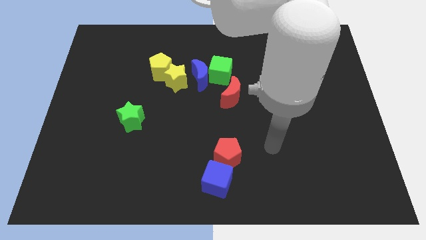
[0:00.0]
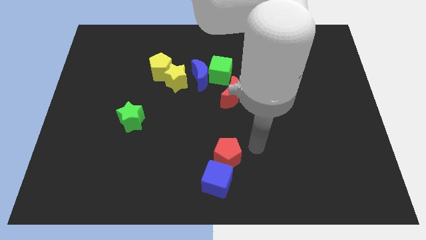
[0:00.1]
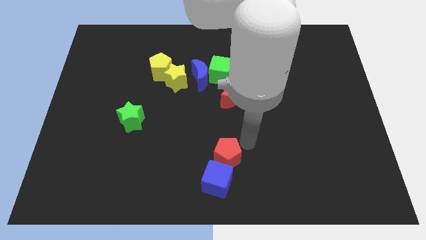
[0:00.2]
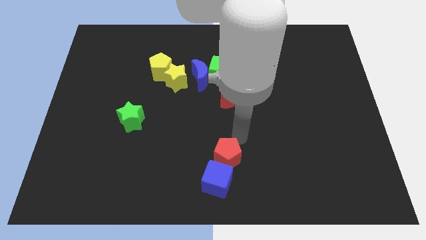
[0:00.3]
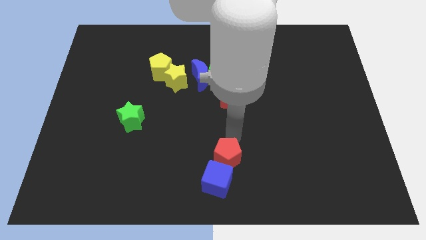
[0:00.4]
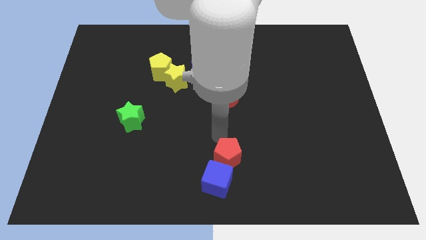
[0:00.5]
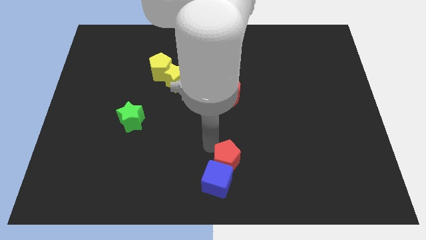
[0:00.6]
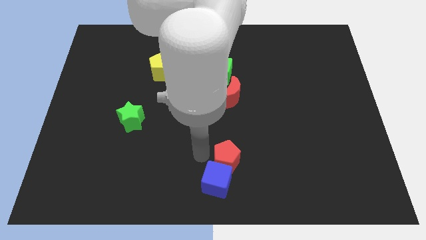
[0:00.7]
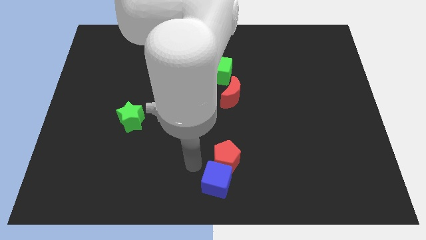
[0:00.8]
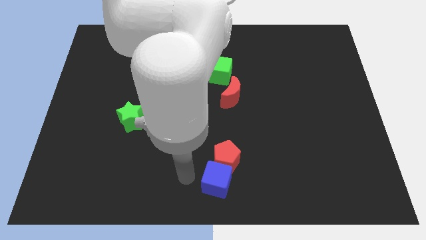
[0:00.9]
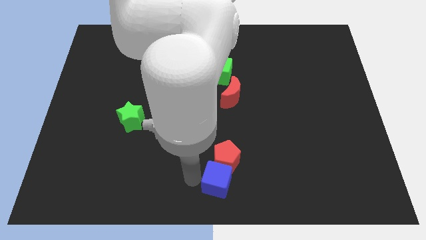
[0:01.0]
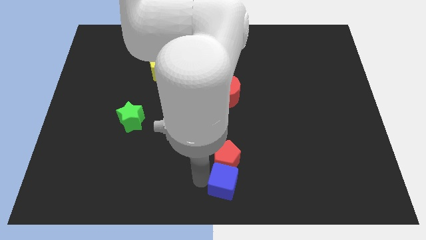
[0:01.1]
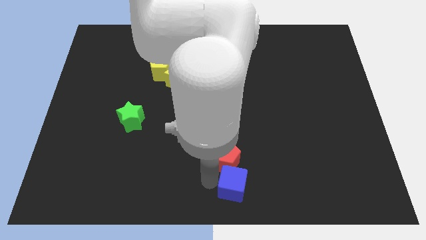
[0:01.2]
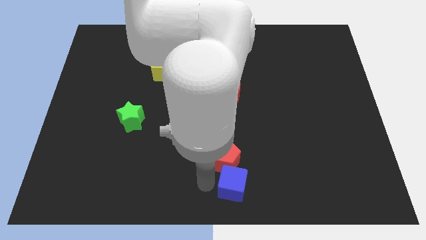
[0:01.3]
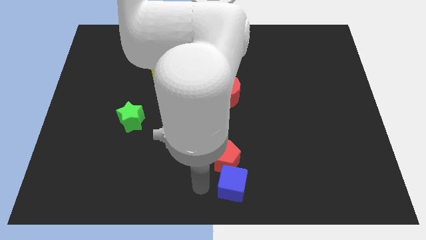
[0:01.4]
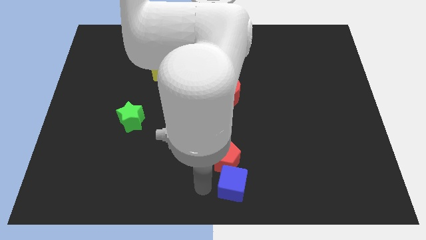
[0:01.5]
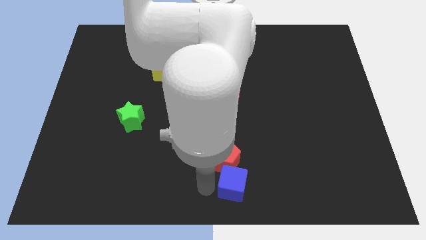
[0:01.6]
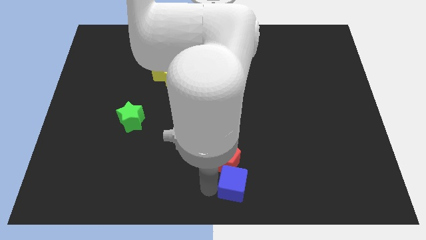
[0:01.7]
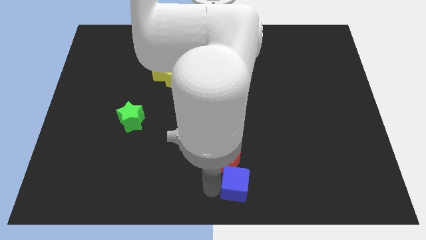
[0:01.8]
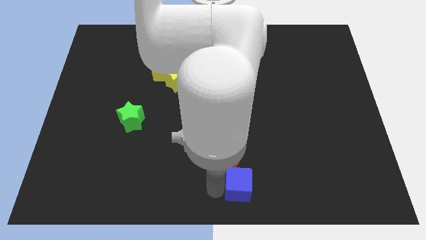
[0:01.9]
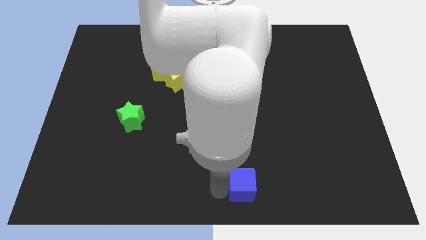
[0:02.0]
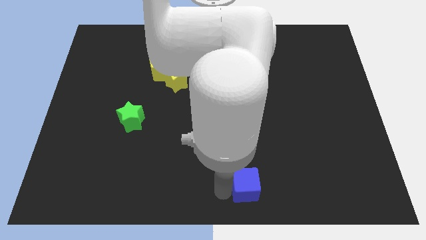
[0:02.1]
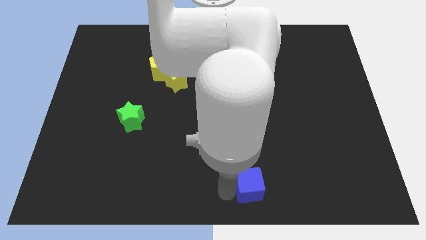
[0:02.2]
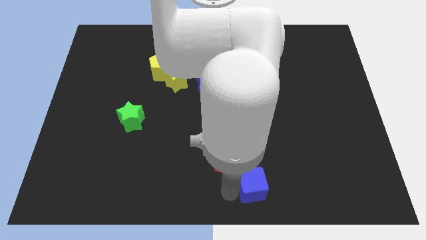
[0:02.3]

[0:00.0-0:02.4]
slightly slide the blue cube to the right

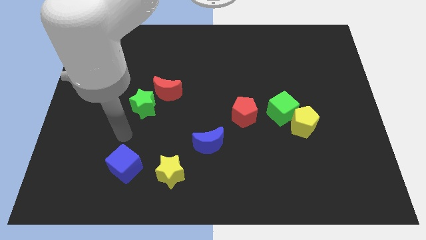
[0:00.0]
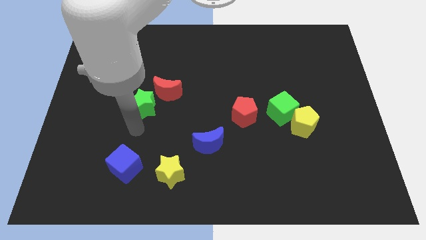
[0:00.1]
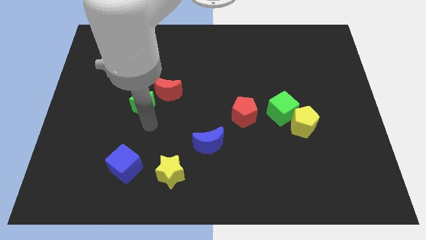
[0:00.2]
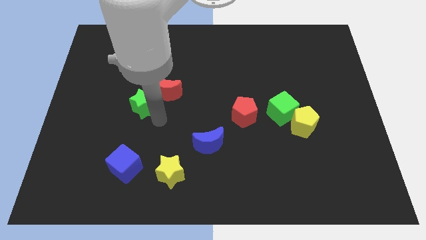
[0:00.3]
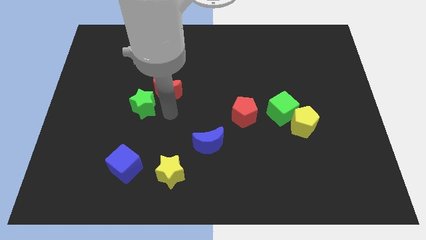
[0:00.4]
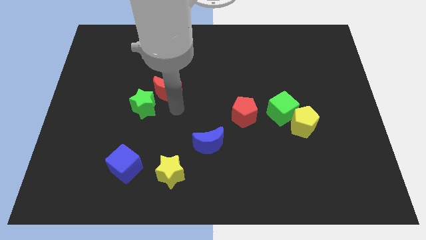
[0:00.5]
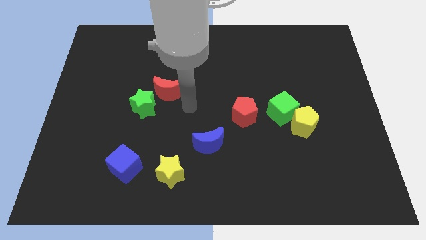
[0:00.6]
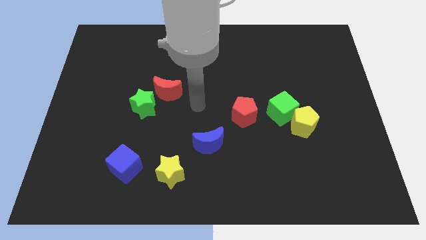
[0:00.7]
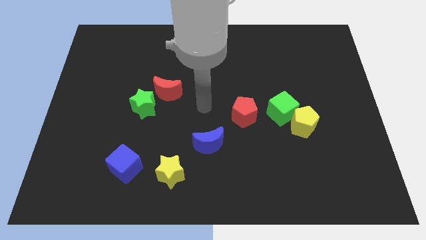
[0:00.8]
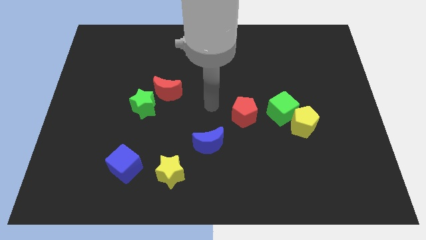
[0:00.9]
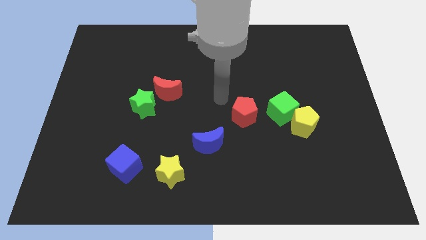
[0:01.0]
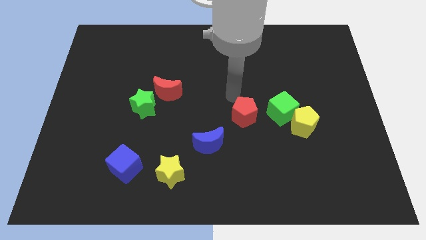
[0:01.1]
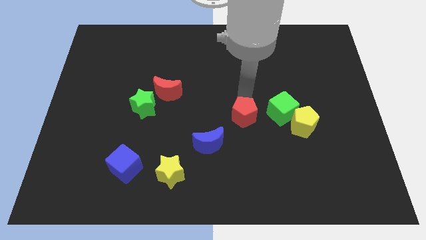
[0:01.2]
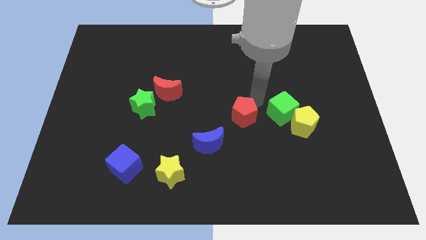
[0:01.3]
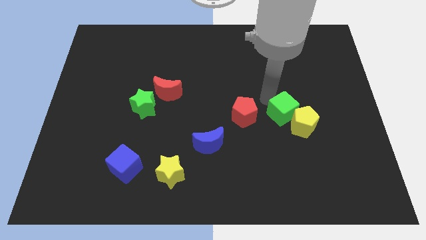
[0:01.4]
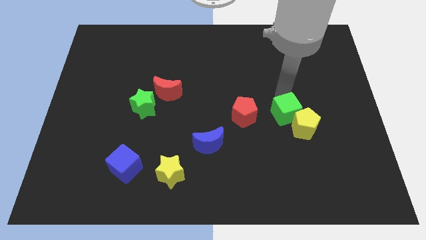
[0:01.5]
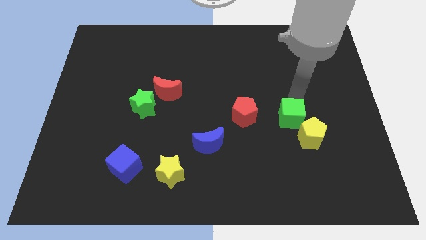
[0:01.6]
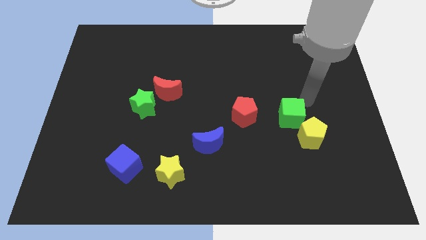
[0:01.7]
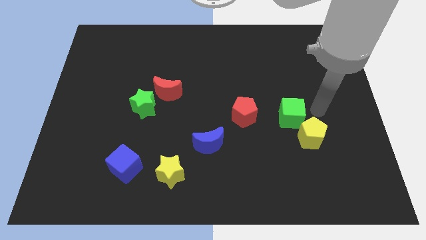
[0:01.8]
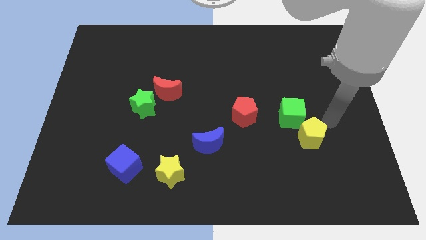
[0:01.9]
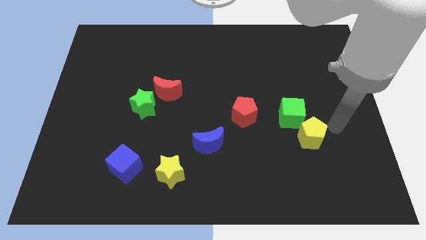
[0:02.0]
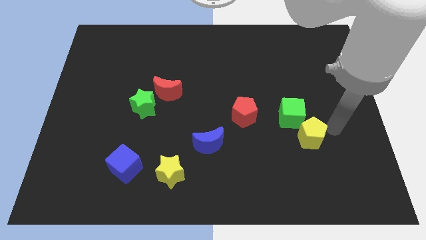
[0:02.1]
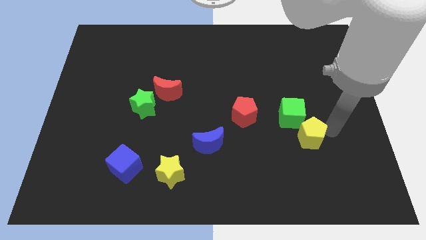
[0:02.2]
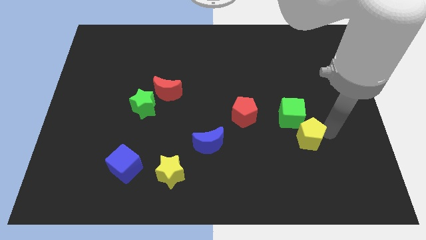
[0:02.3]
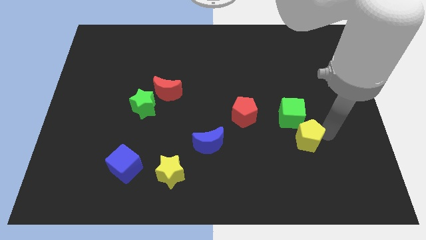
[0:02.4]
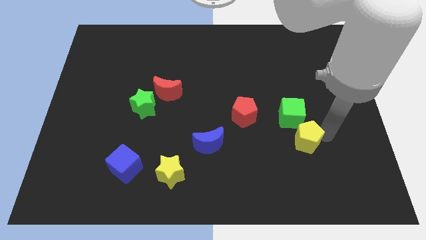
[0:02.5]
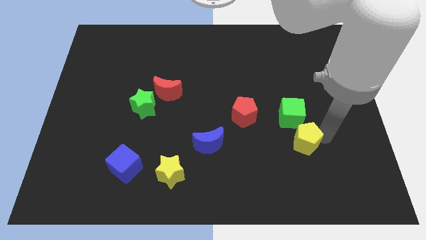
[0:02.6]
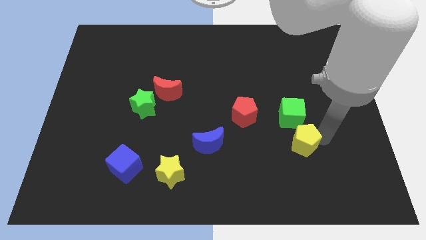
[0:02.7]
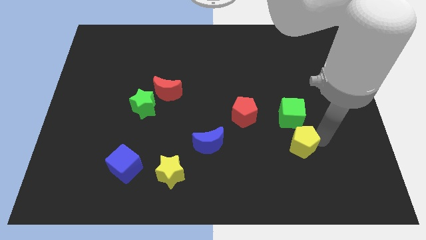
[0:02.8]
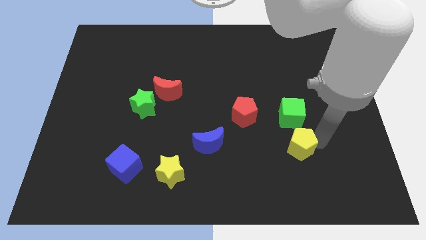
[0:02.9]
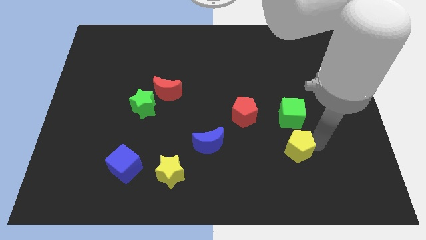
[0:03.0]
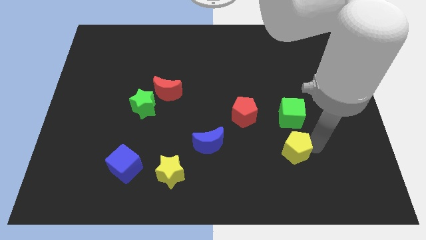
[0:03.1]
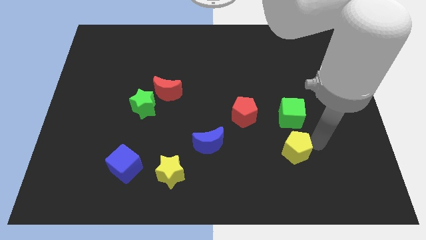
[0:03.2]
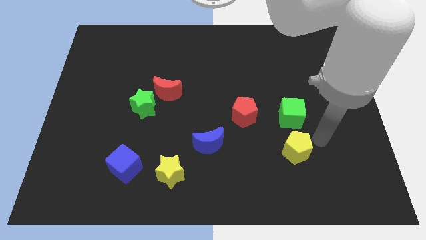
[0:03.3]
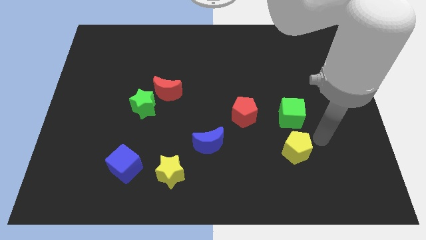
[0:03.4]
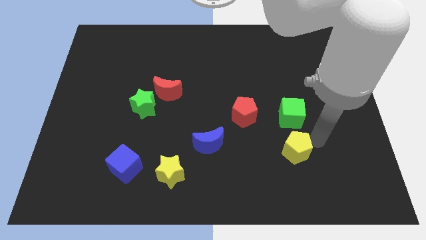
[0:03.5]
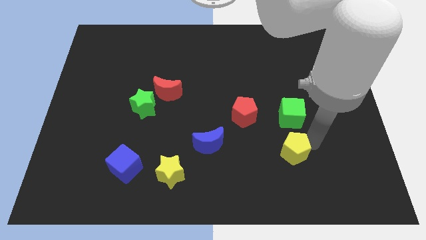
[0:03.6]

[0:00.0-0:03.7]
slide the yellow pentagon diagonally downwards and to the left somewhat

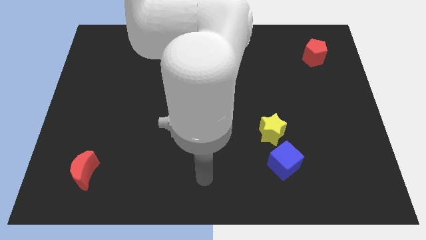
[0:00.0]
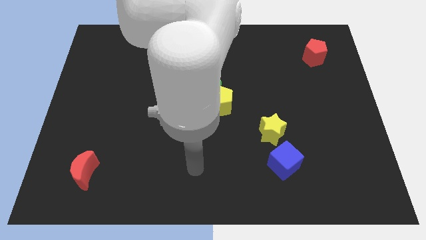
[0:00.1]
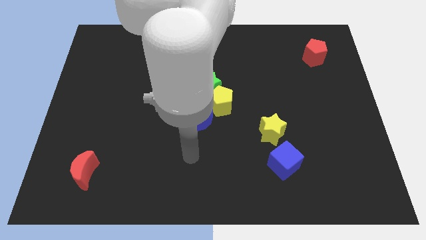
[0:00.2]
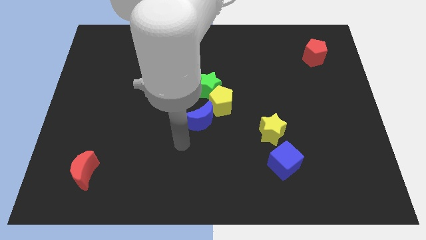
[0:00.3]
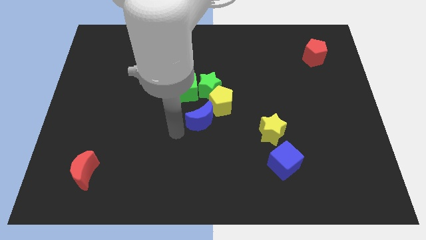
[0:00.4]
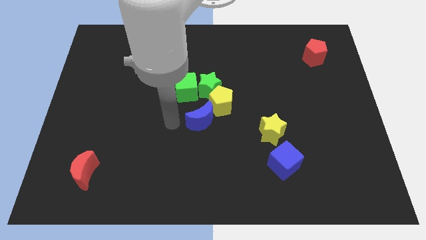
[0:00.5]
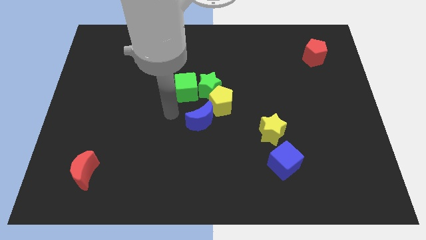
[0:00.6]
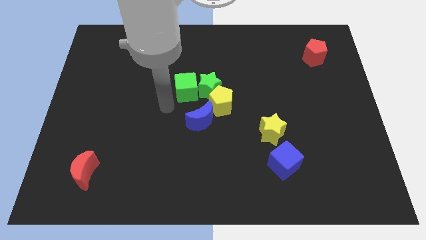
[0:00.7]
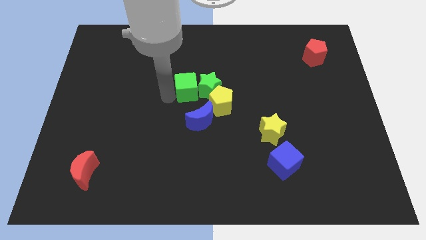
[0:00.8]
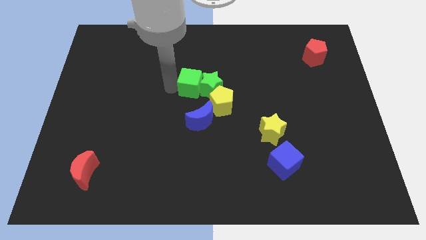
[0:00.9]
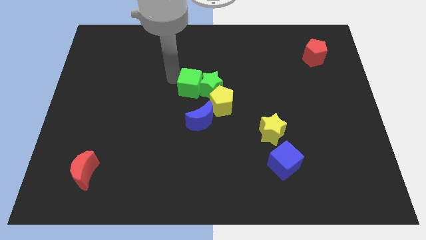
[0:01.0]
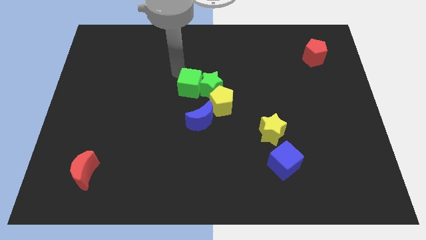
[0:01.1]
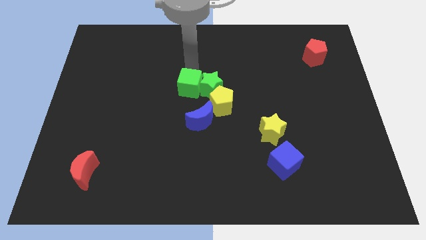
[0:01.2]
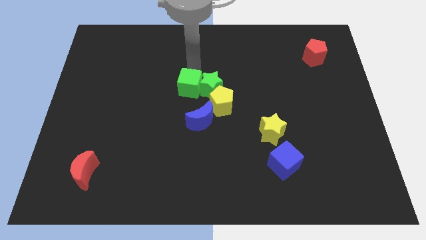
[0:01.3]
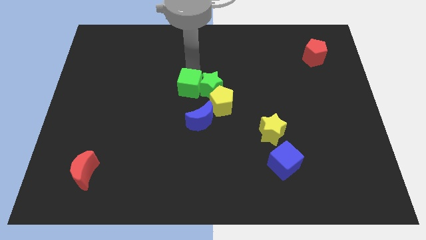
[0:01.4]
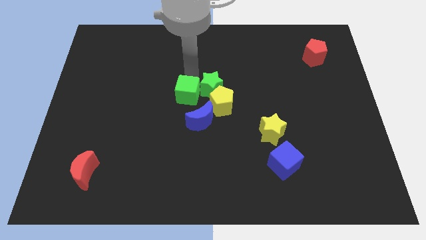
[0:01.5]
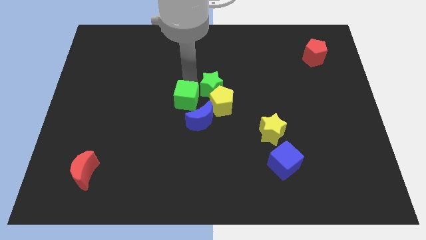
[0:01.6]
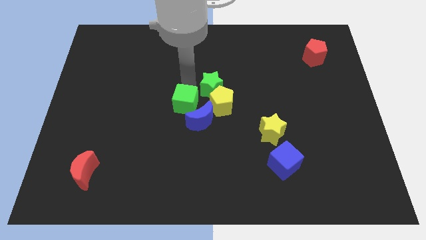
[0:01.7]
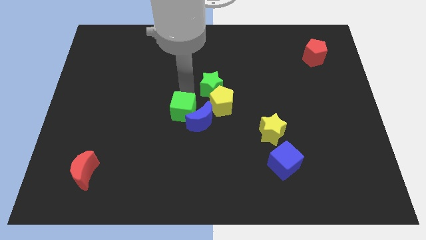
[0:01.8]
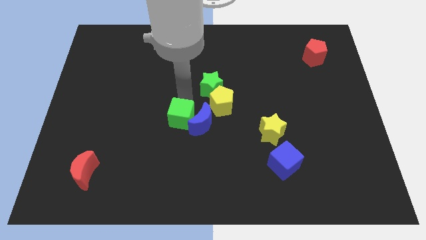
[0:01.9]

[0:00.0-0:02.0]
push the green cube down slightly
